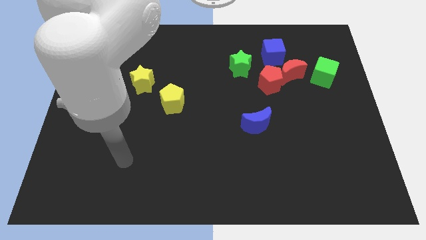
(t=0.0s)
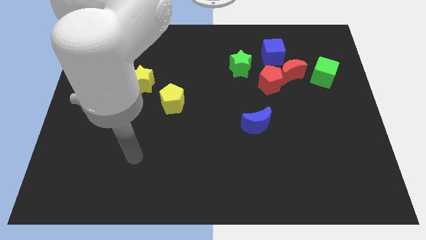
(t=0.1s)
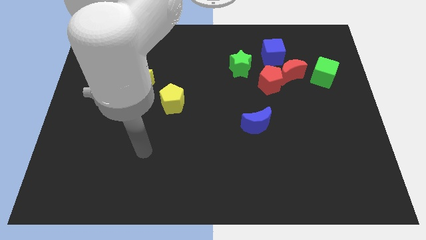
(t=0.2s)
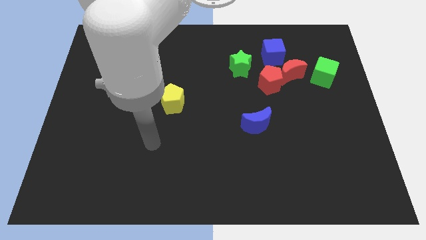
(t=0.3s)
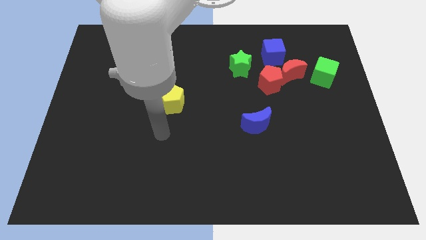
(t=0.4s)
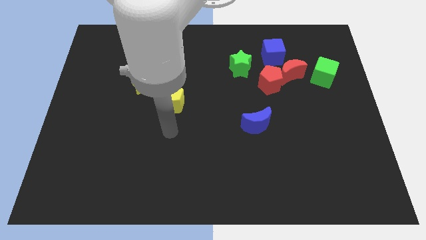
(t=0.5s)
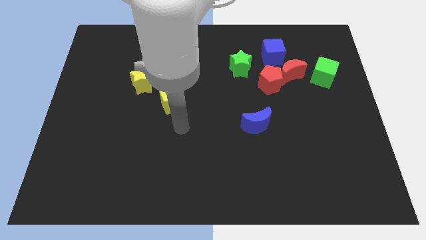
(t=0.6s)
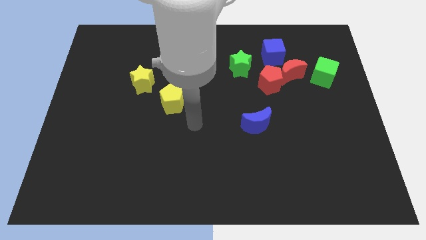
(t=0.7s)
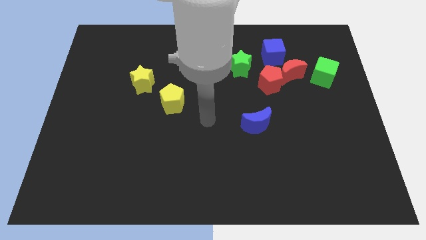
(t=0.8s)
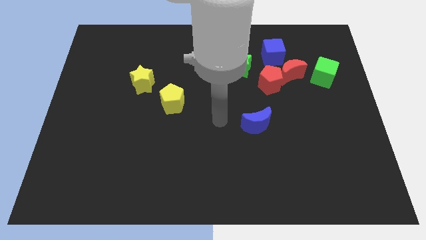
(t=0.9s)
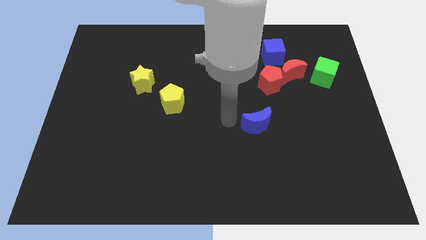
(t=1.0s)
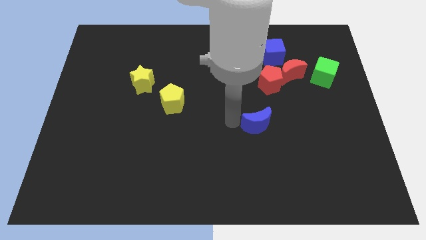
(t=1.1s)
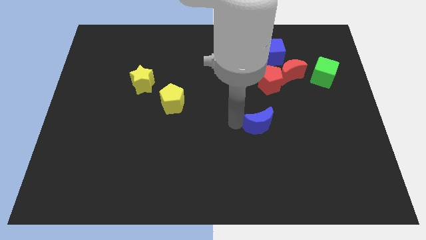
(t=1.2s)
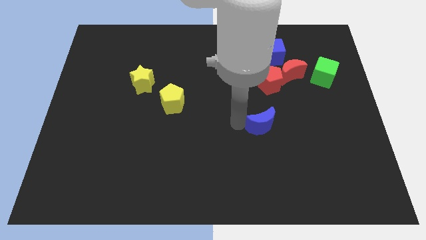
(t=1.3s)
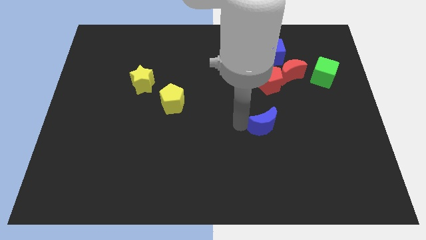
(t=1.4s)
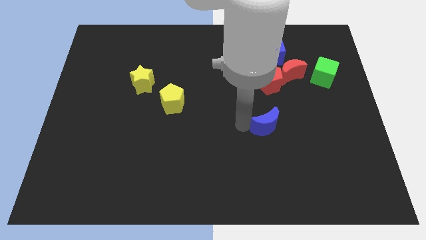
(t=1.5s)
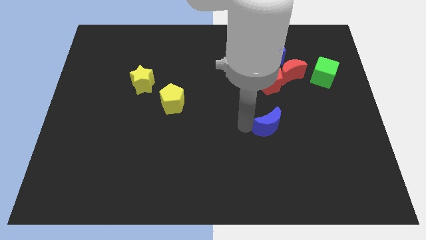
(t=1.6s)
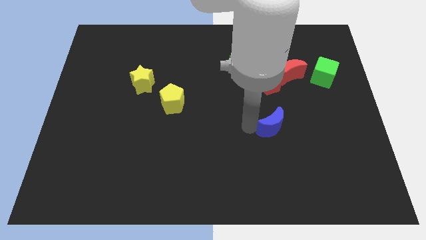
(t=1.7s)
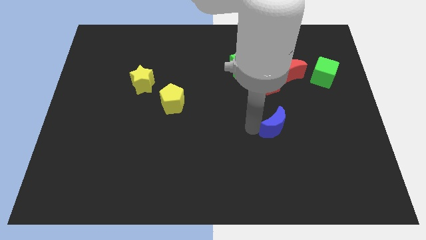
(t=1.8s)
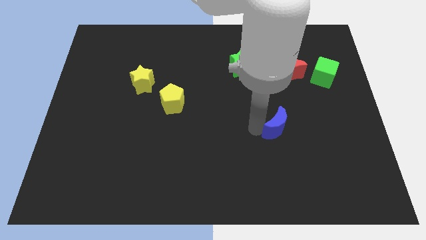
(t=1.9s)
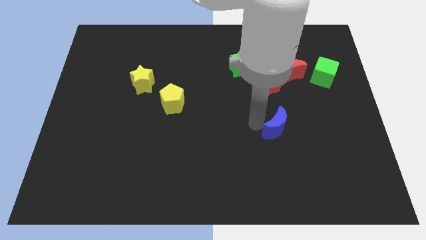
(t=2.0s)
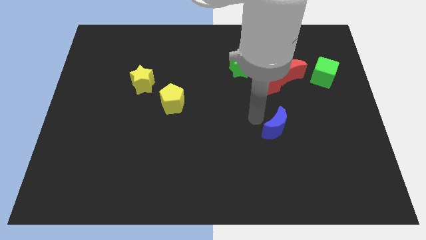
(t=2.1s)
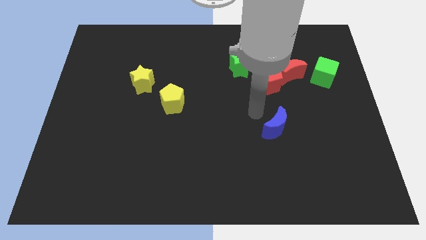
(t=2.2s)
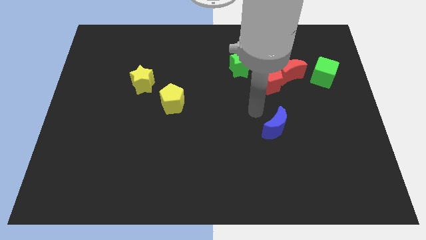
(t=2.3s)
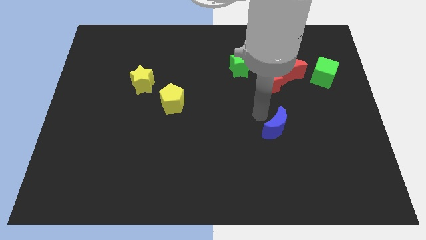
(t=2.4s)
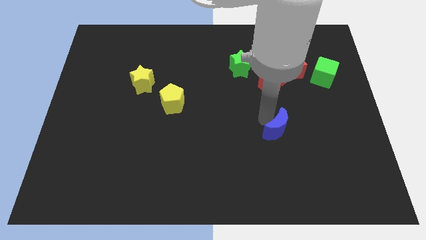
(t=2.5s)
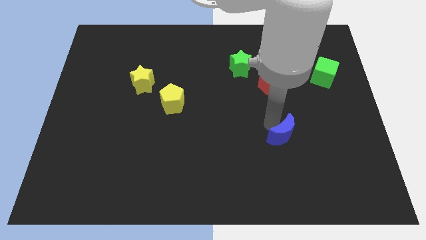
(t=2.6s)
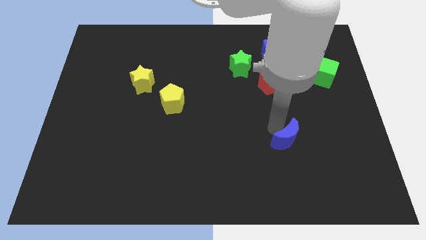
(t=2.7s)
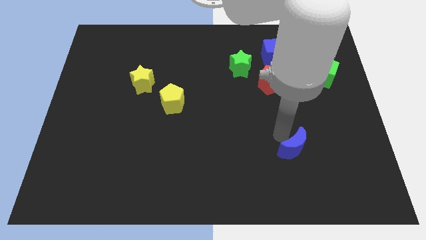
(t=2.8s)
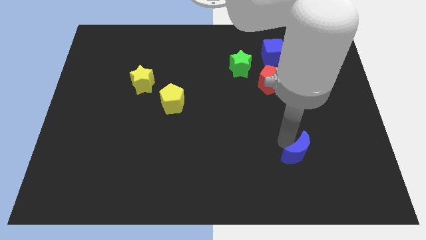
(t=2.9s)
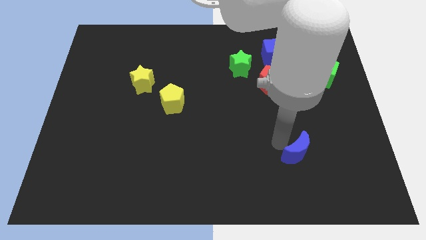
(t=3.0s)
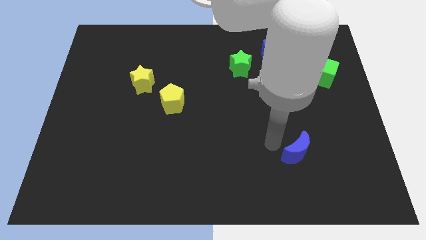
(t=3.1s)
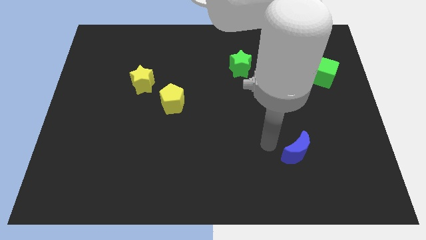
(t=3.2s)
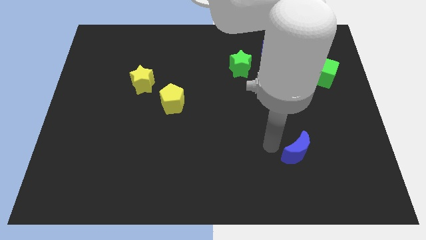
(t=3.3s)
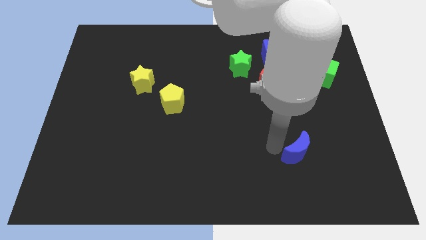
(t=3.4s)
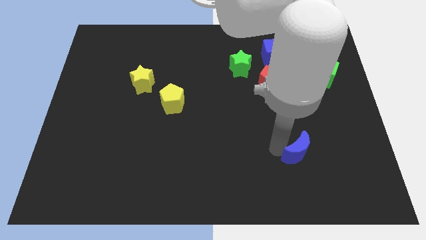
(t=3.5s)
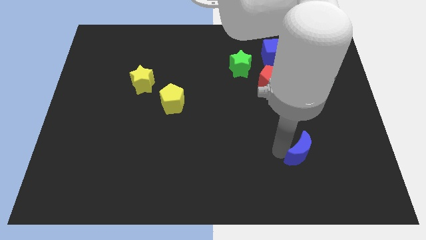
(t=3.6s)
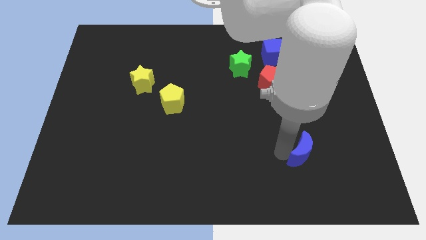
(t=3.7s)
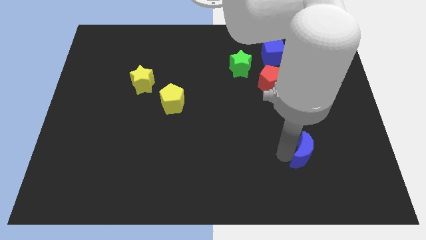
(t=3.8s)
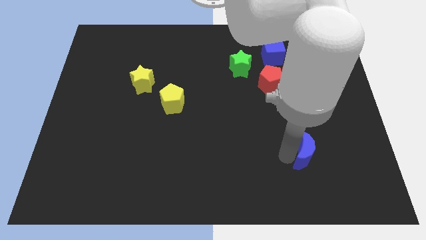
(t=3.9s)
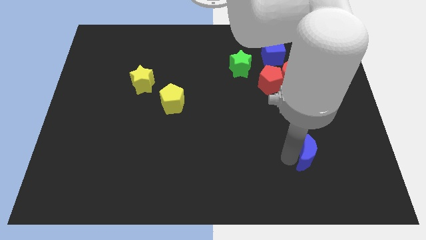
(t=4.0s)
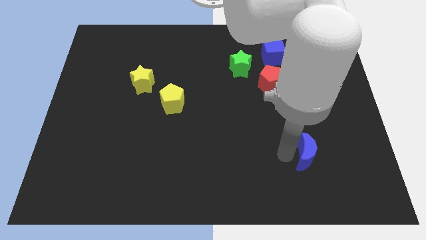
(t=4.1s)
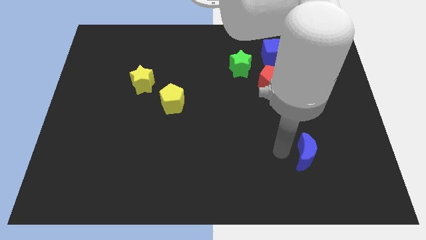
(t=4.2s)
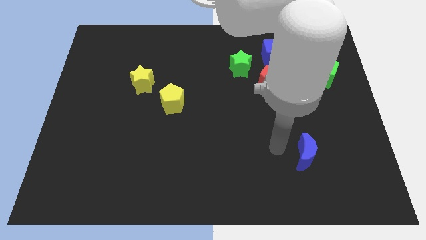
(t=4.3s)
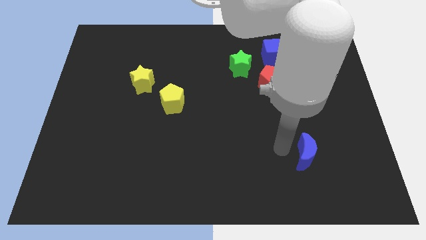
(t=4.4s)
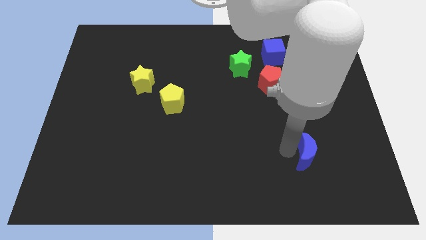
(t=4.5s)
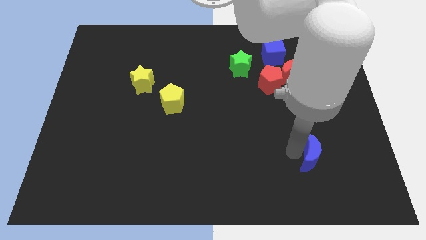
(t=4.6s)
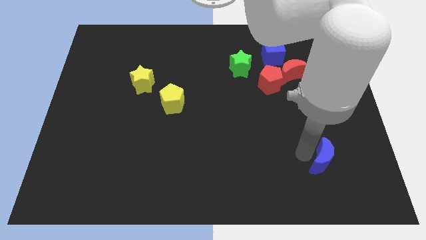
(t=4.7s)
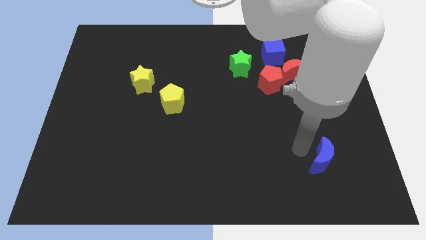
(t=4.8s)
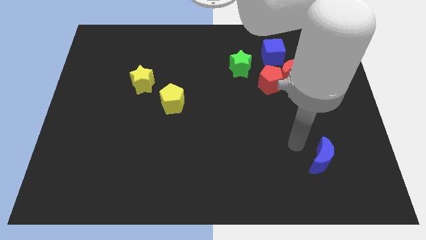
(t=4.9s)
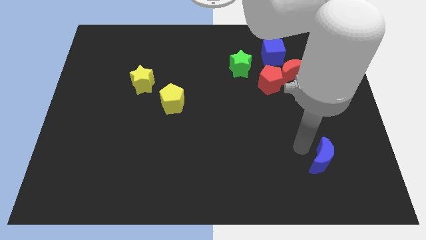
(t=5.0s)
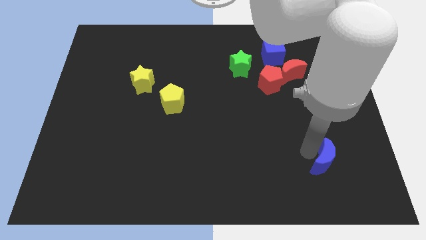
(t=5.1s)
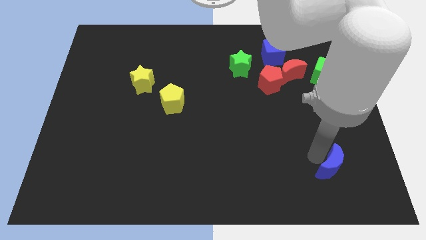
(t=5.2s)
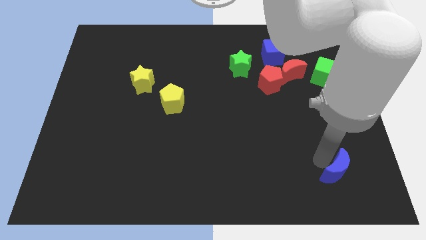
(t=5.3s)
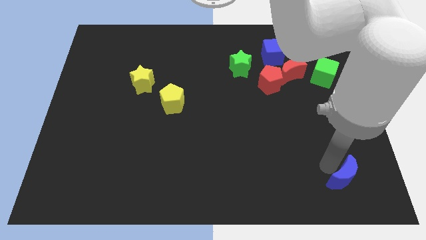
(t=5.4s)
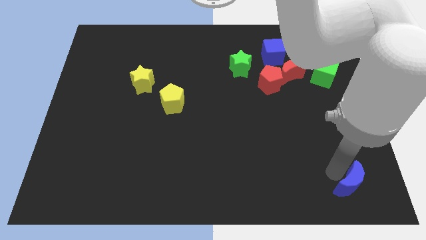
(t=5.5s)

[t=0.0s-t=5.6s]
put the blue moon to the bottom right corner

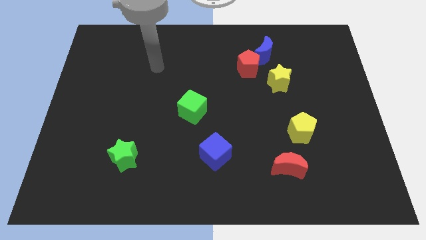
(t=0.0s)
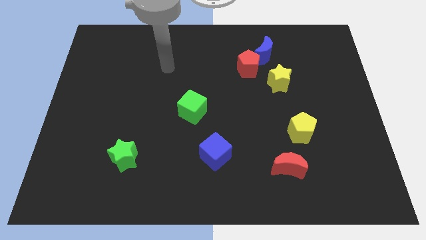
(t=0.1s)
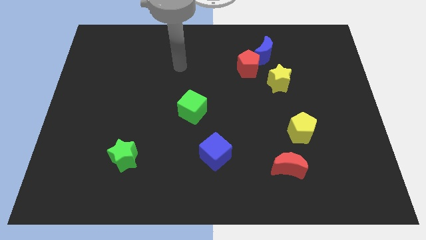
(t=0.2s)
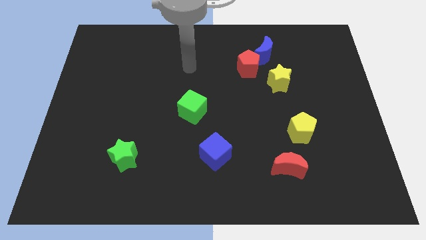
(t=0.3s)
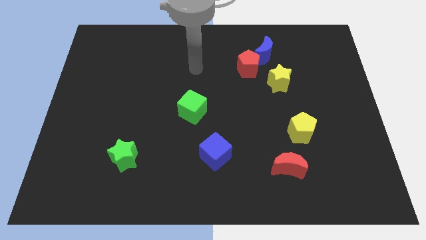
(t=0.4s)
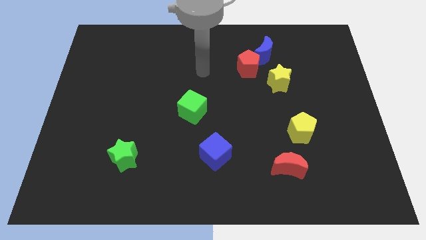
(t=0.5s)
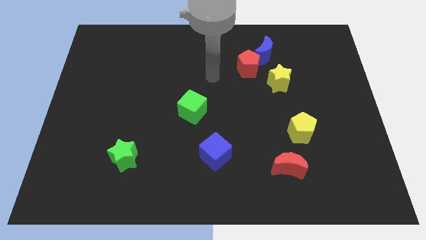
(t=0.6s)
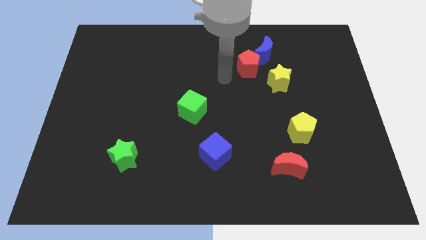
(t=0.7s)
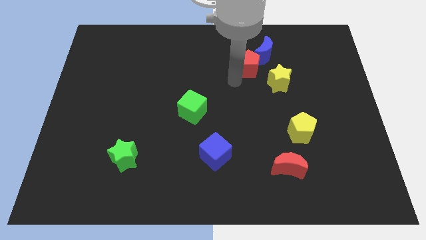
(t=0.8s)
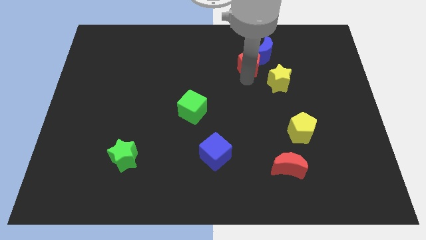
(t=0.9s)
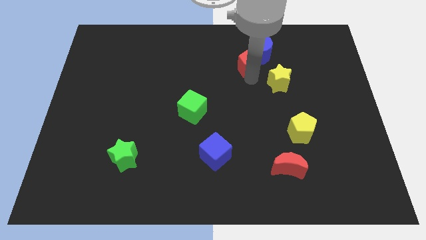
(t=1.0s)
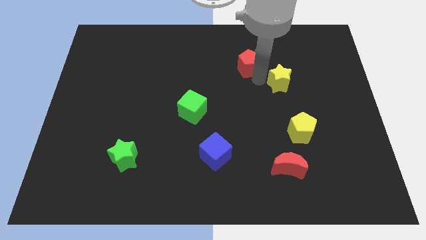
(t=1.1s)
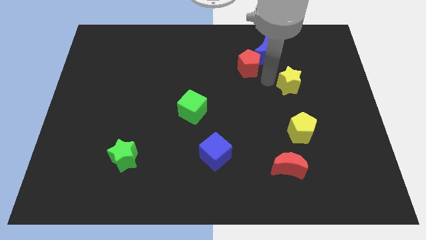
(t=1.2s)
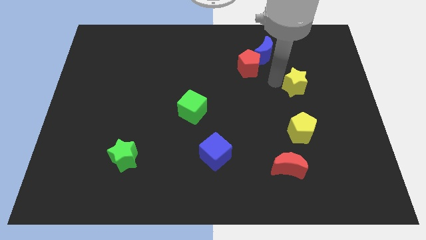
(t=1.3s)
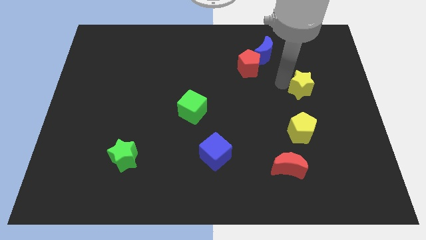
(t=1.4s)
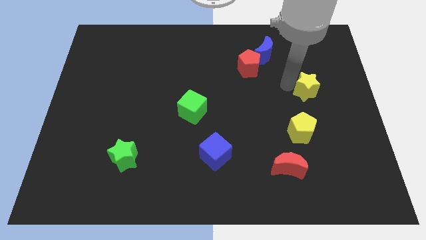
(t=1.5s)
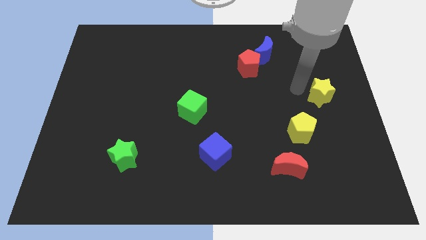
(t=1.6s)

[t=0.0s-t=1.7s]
push the yellow star to the center right
